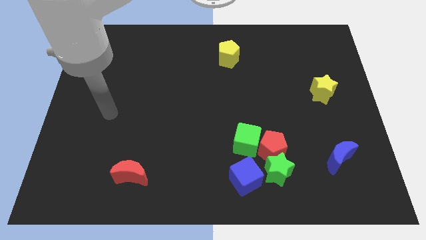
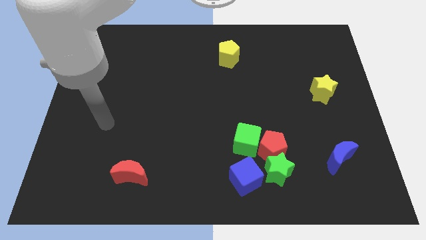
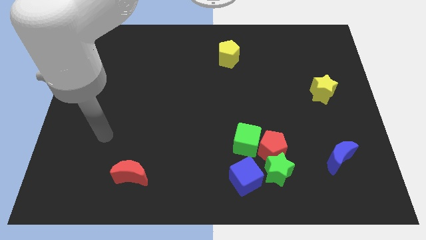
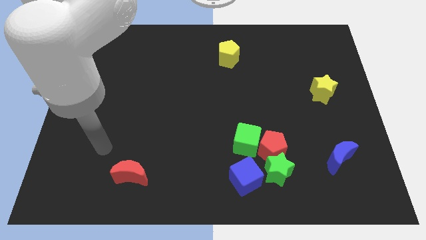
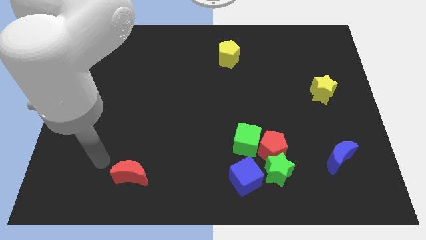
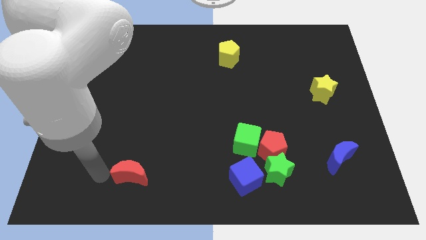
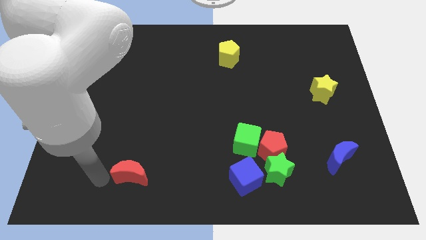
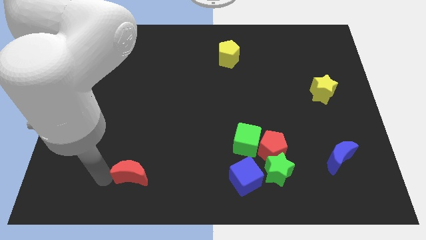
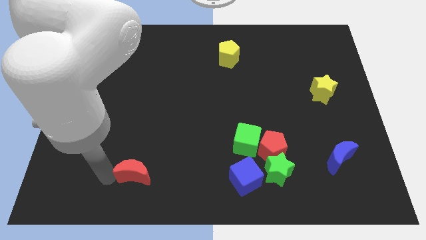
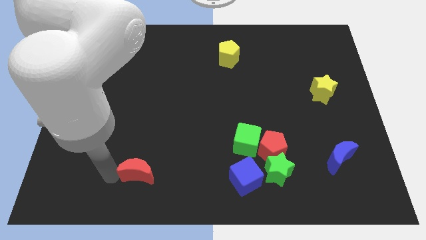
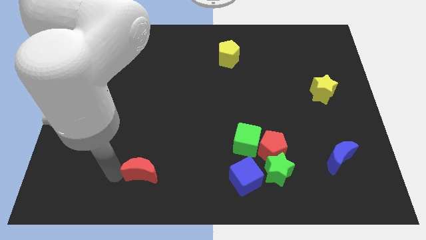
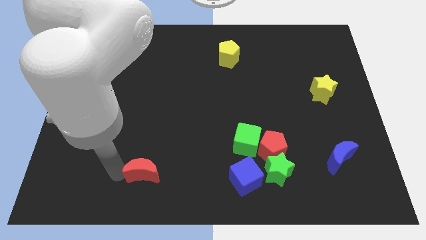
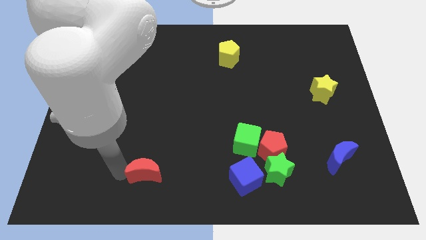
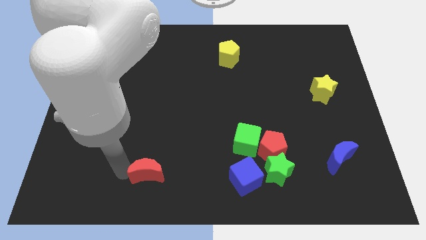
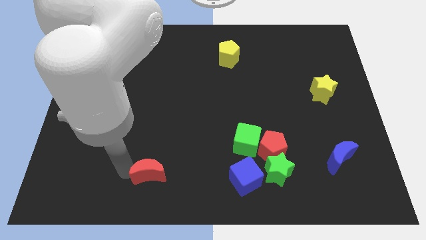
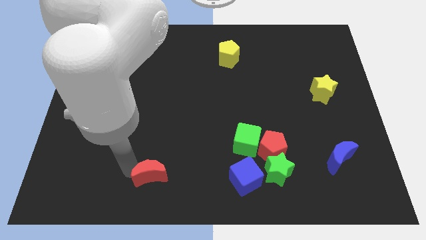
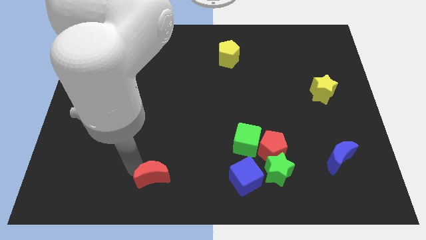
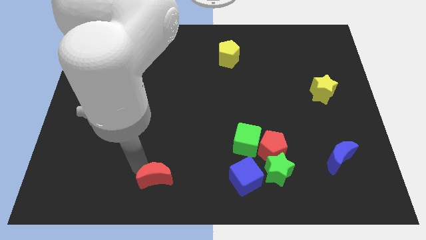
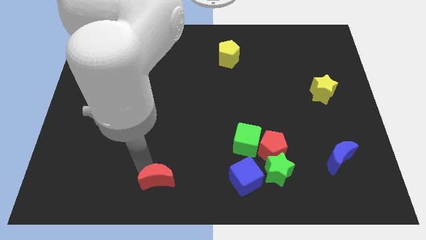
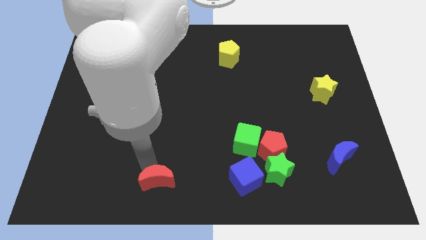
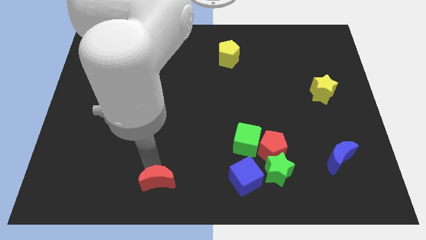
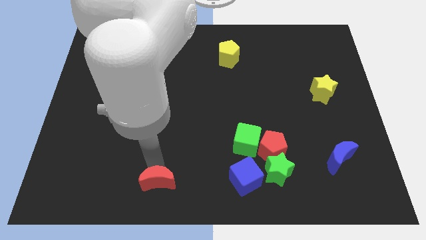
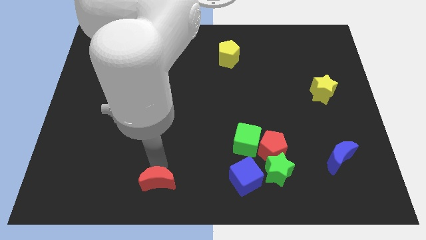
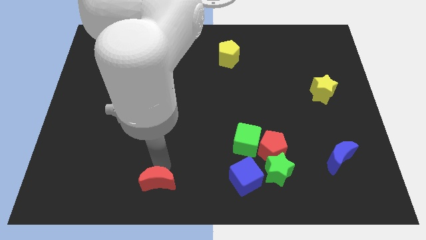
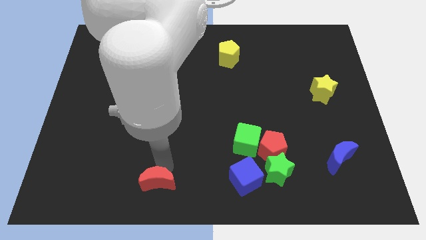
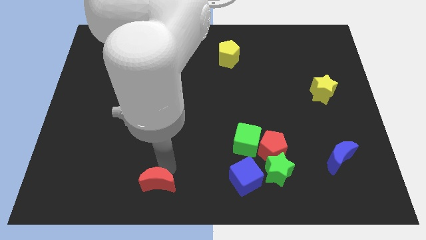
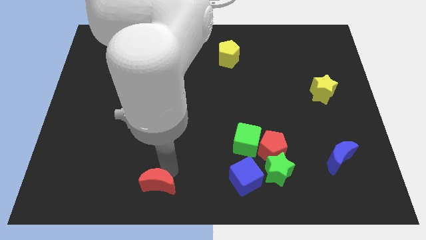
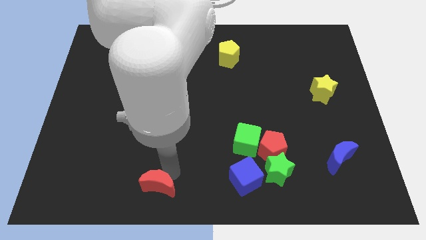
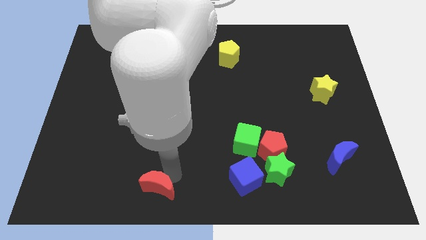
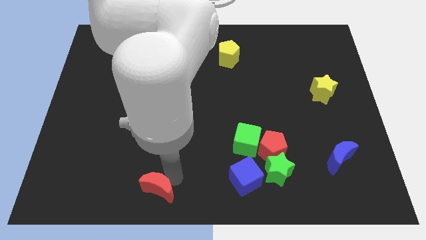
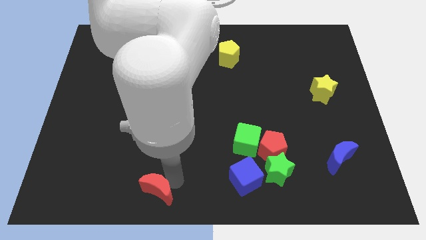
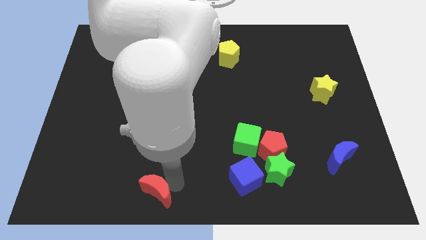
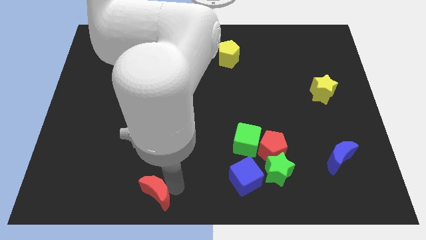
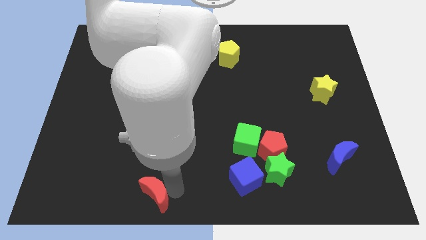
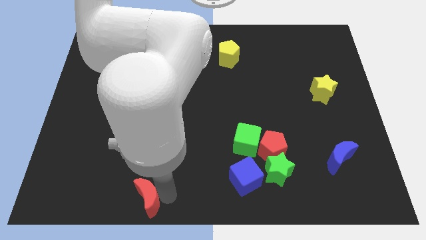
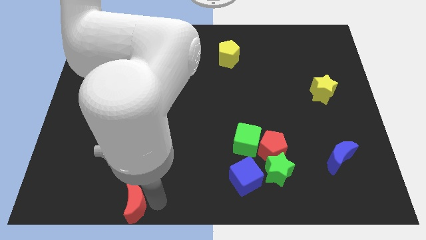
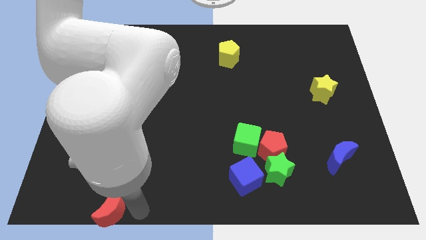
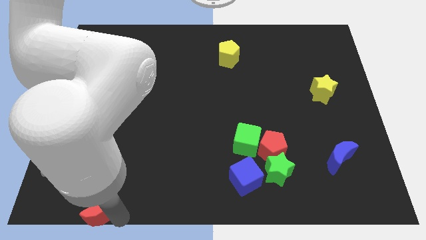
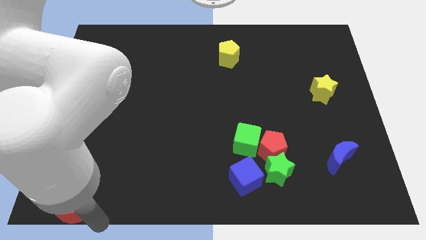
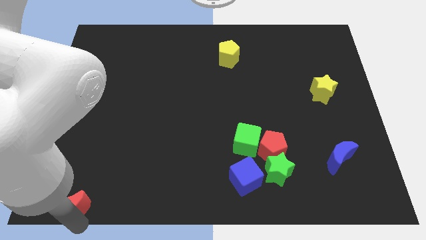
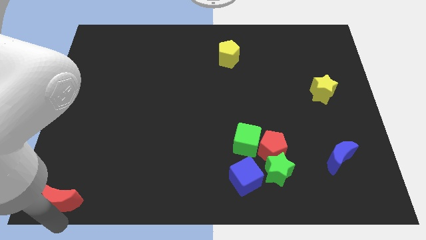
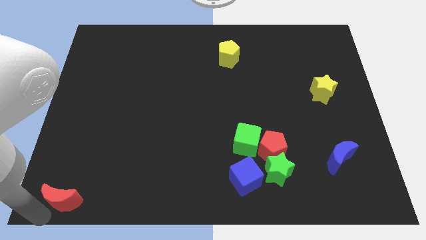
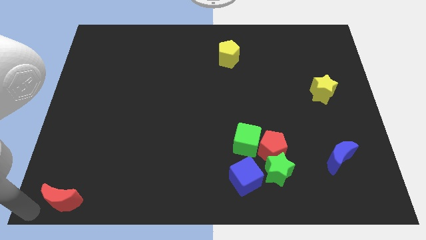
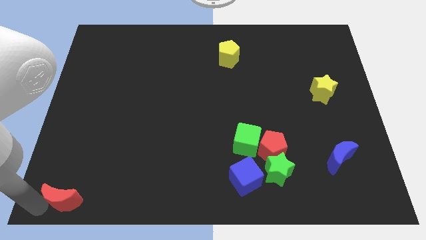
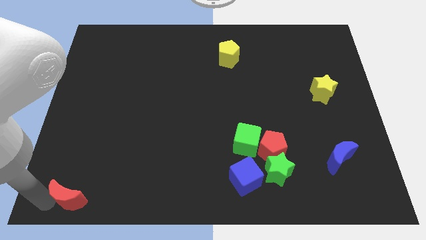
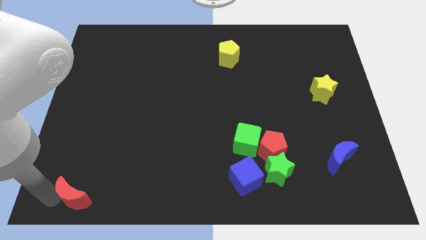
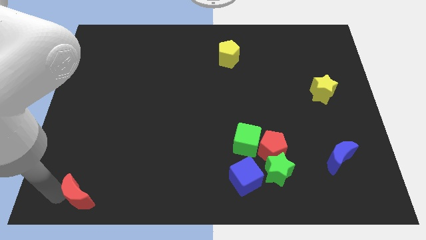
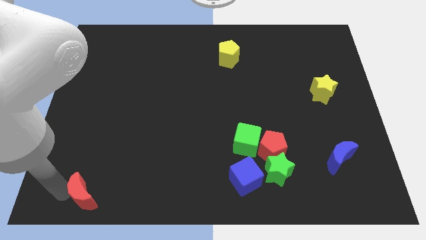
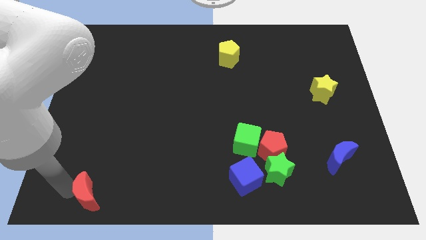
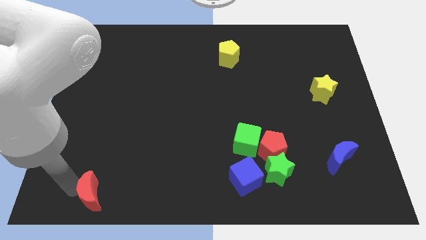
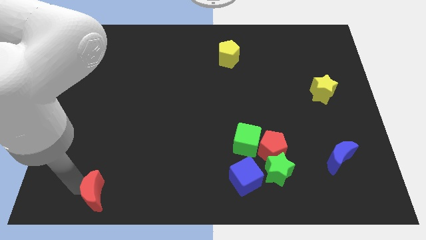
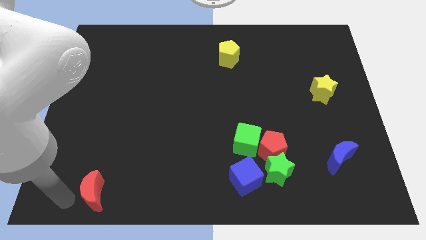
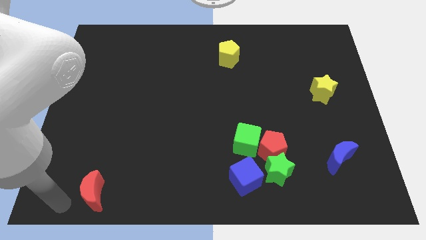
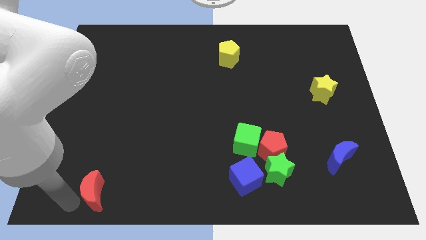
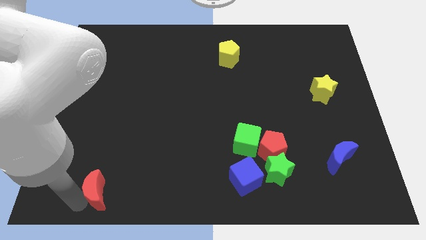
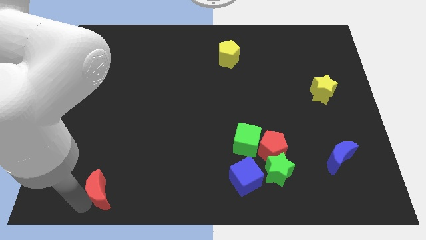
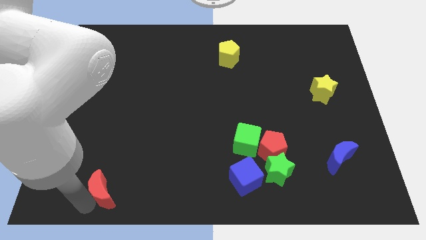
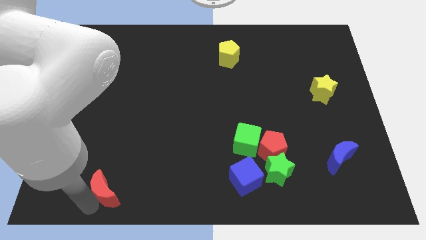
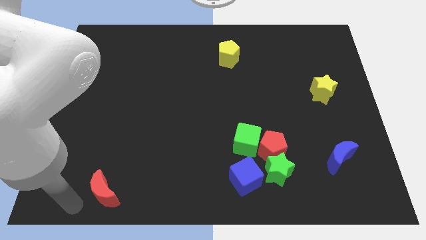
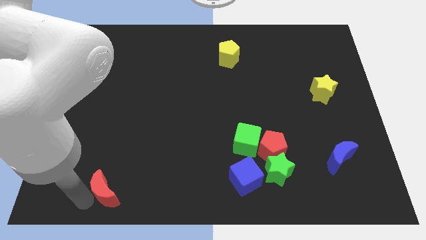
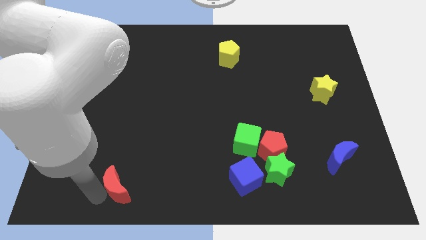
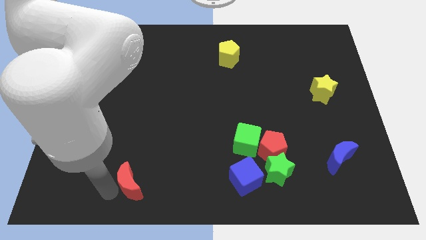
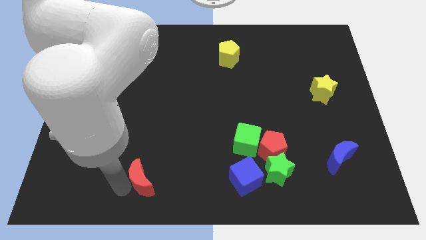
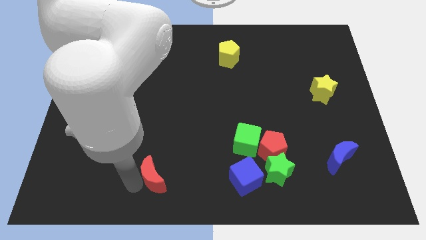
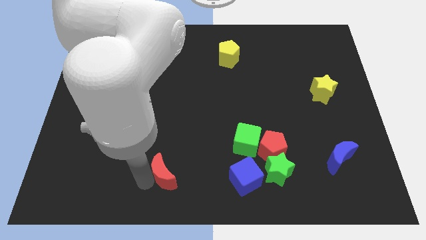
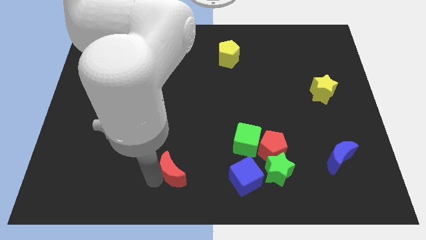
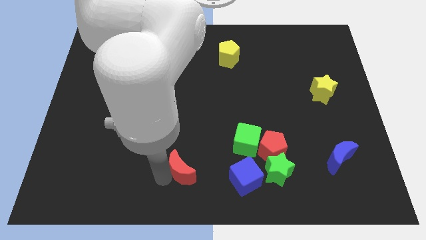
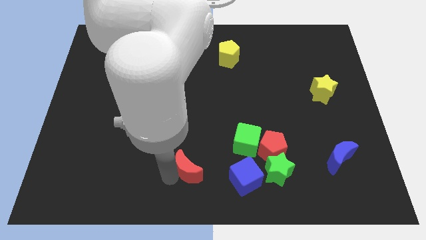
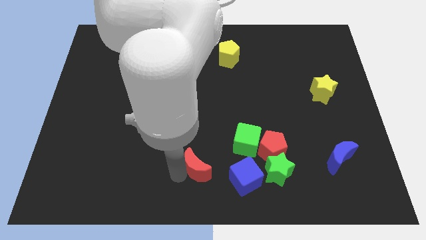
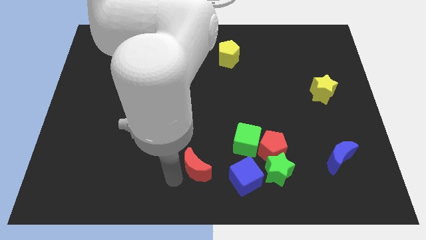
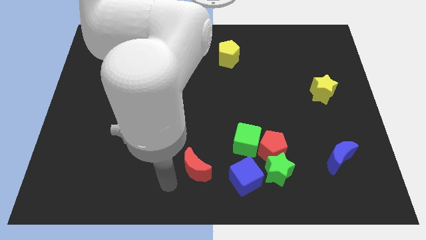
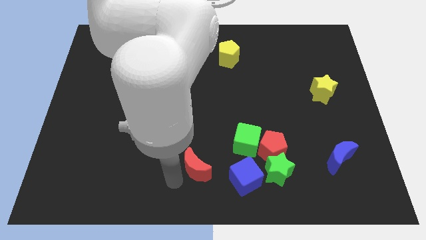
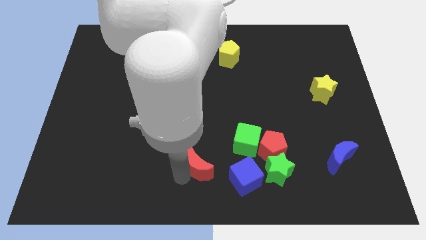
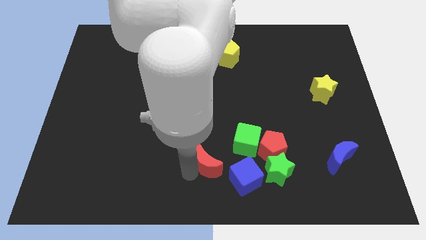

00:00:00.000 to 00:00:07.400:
push the red moon to the top left of the blue cube

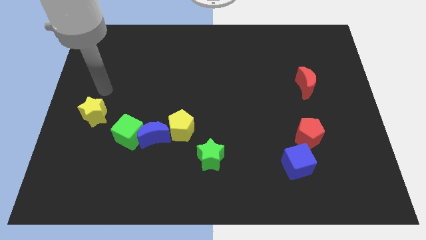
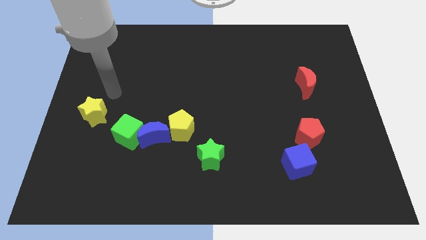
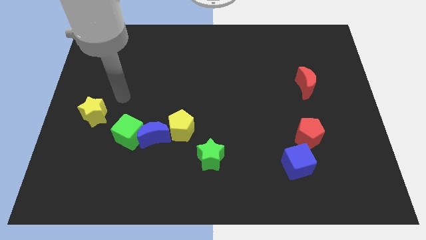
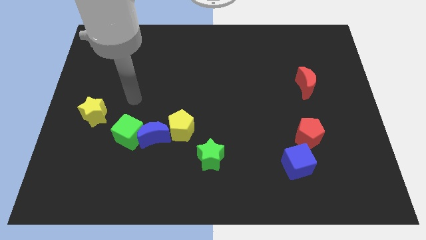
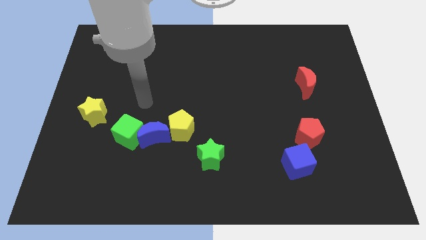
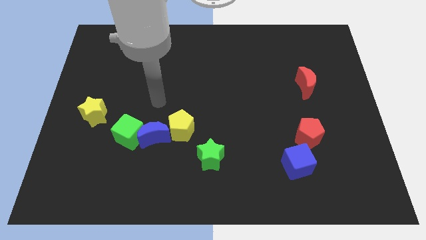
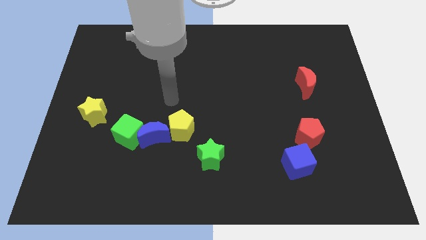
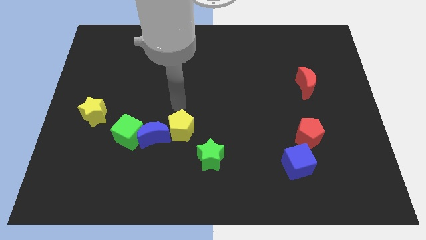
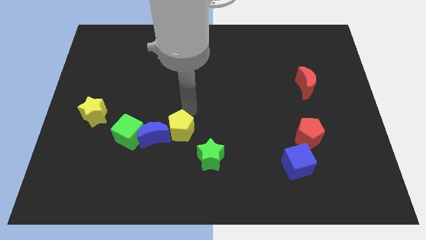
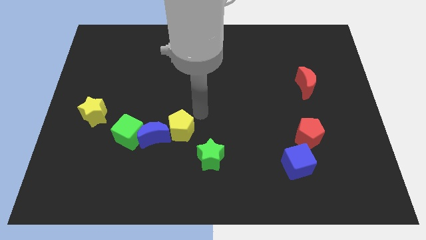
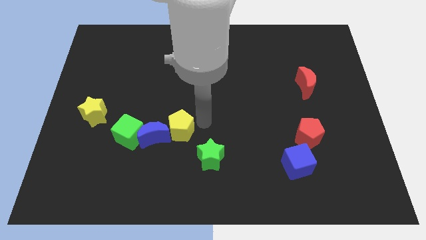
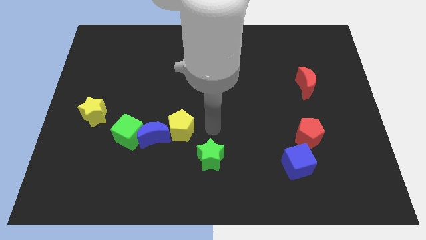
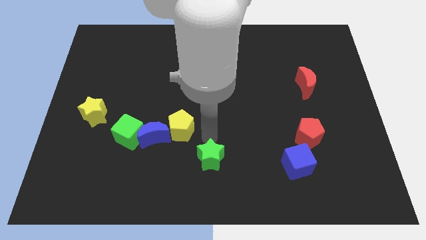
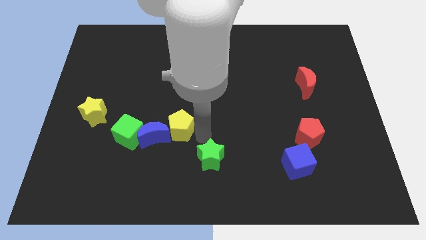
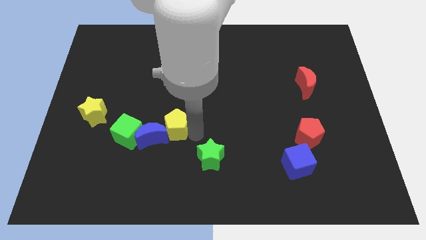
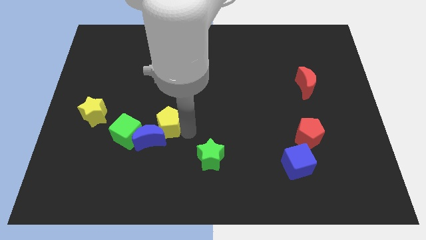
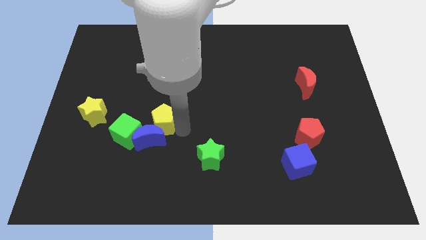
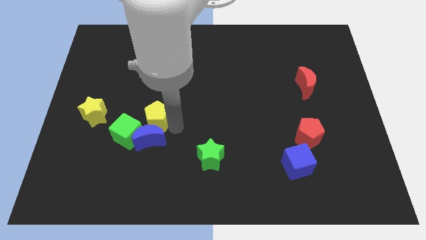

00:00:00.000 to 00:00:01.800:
put the yellow pentagon to the right side of the yellow star
